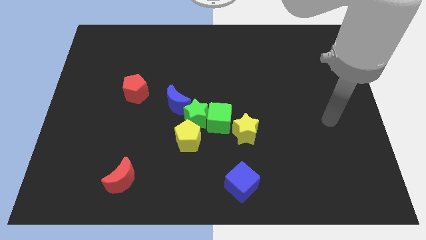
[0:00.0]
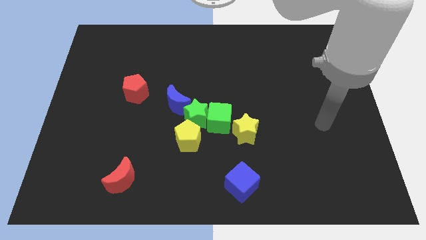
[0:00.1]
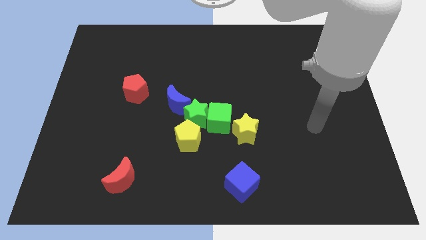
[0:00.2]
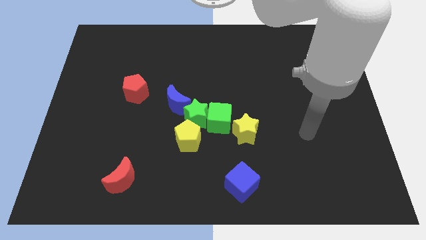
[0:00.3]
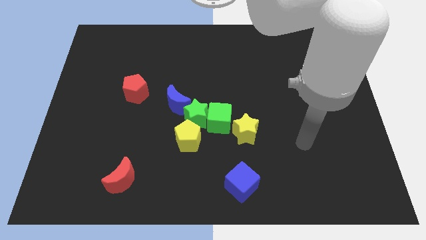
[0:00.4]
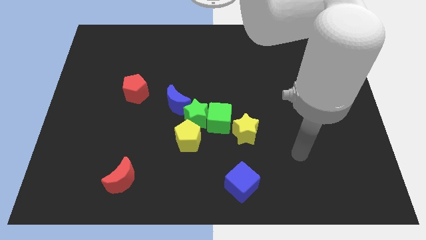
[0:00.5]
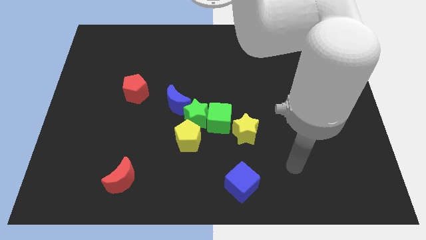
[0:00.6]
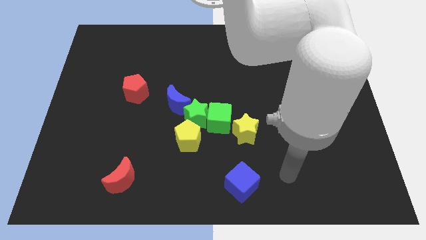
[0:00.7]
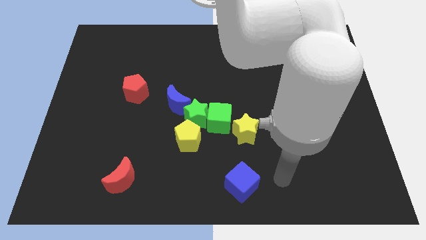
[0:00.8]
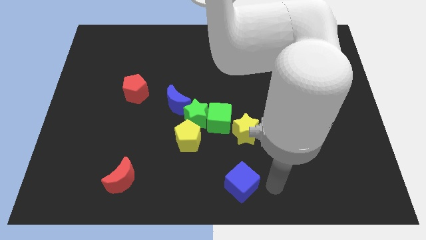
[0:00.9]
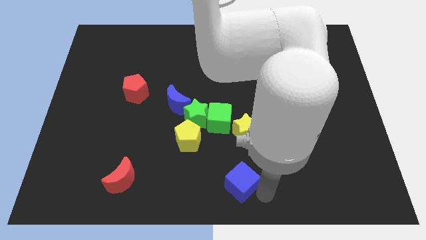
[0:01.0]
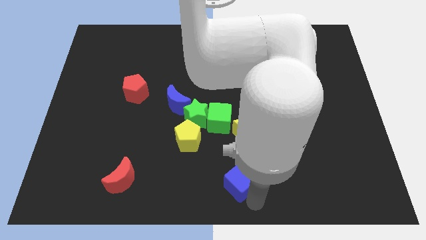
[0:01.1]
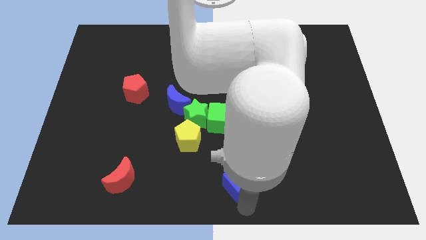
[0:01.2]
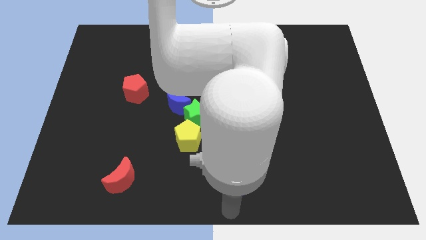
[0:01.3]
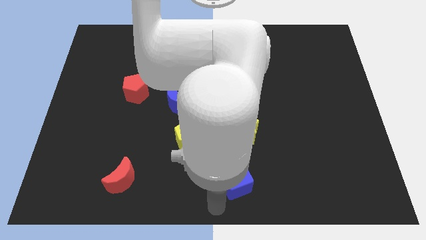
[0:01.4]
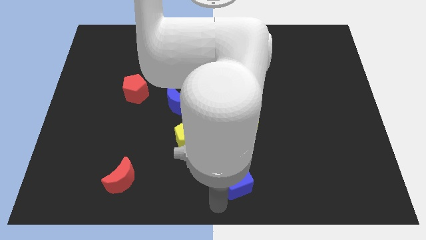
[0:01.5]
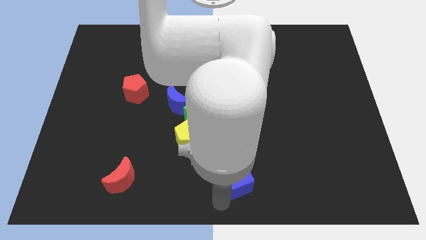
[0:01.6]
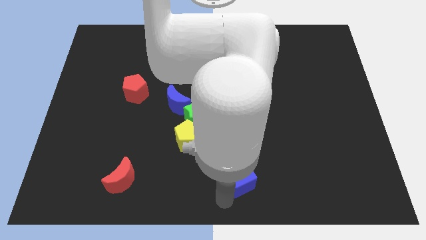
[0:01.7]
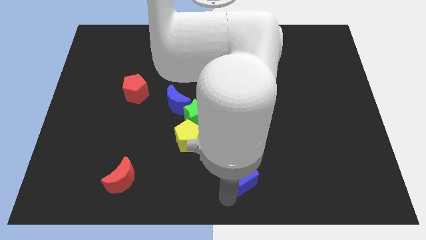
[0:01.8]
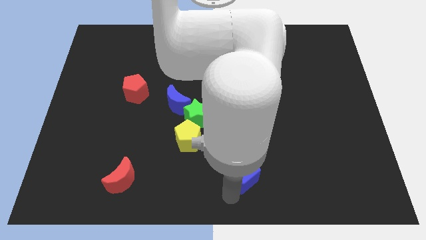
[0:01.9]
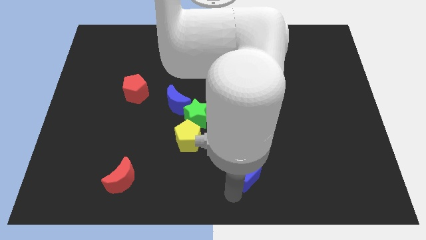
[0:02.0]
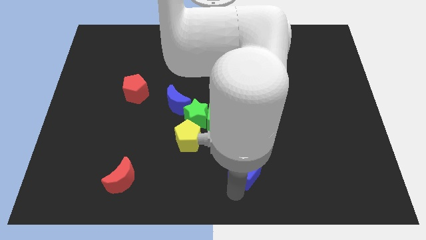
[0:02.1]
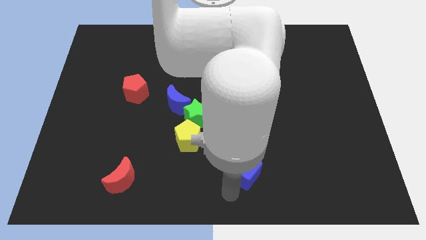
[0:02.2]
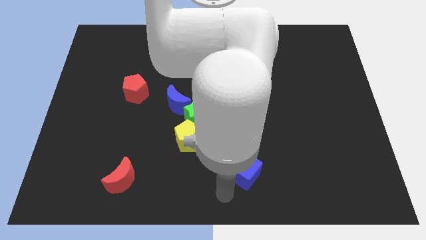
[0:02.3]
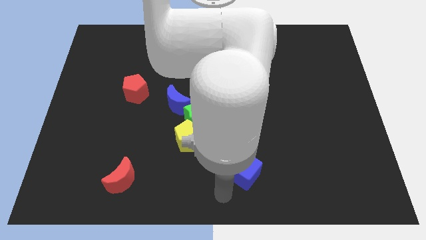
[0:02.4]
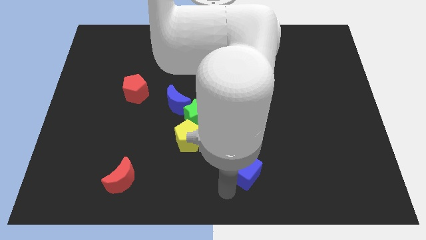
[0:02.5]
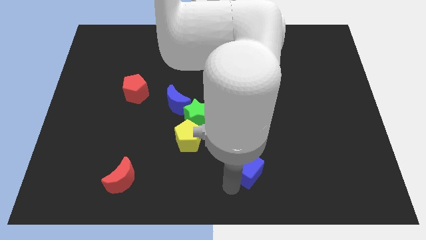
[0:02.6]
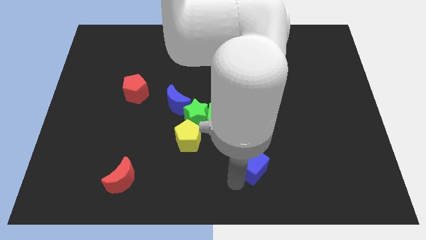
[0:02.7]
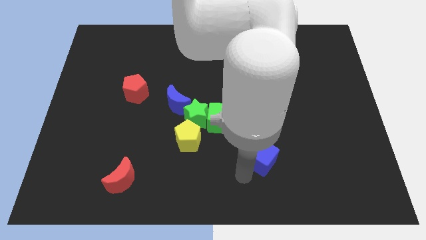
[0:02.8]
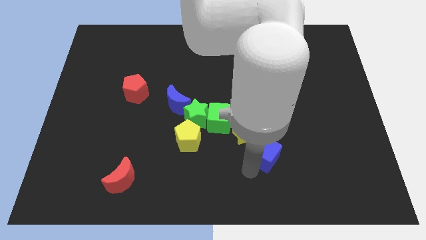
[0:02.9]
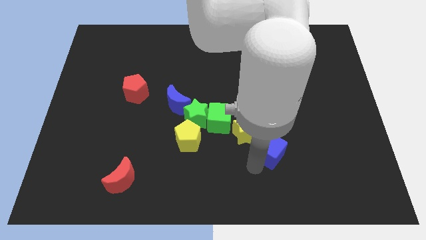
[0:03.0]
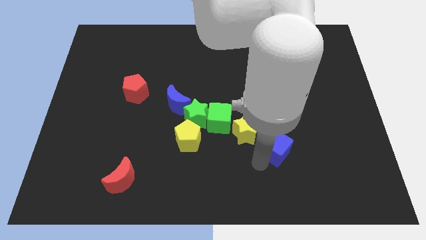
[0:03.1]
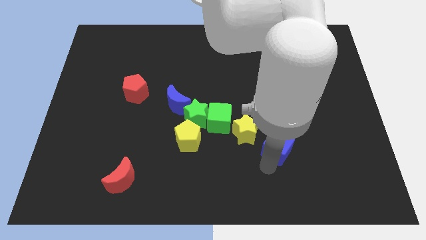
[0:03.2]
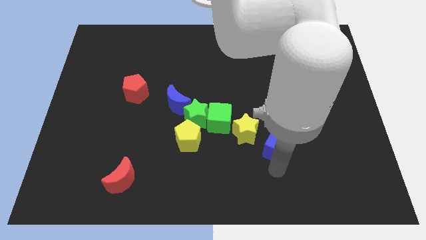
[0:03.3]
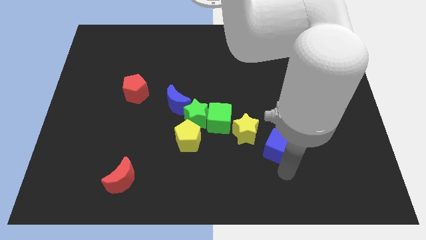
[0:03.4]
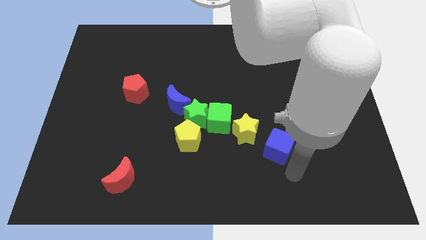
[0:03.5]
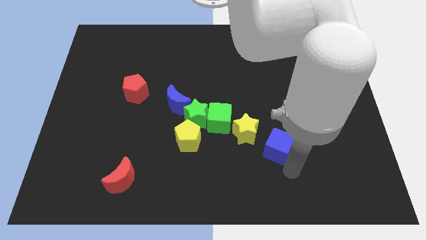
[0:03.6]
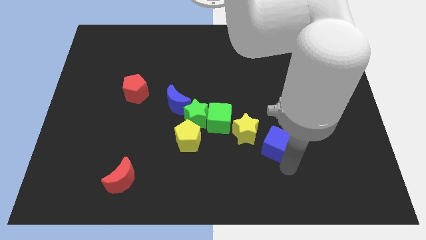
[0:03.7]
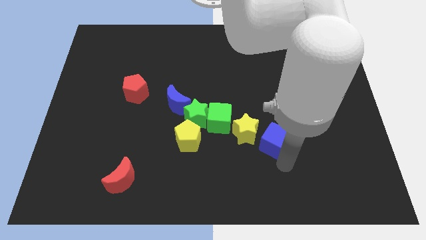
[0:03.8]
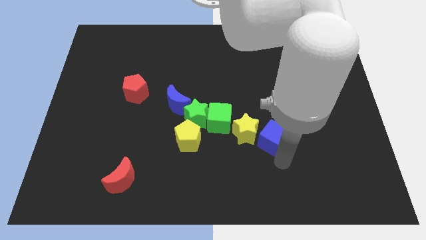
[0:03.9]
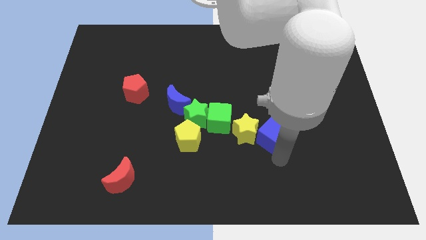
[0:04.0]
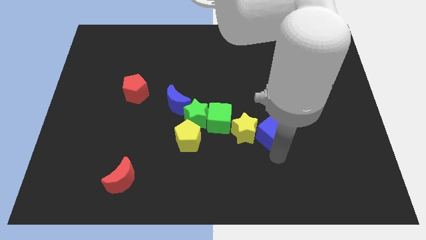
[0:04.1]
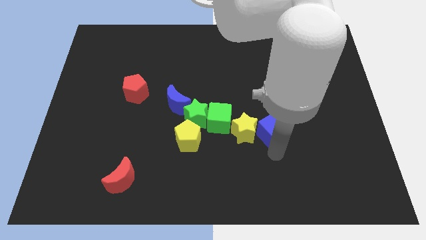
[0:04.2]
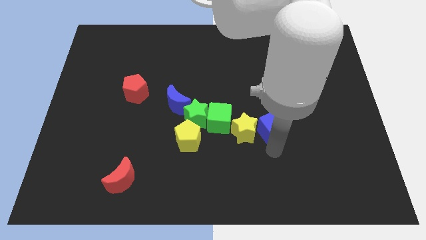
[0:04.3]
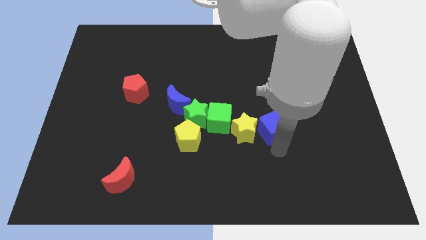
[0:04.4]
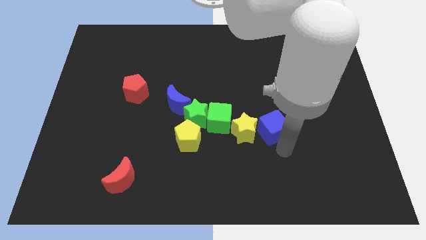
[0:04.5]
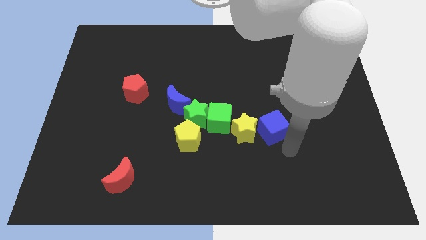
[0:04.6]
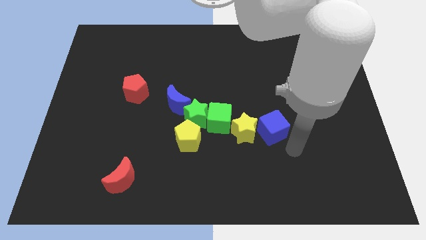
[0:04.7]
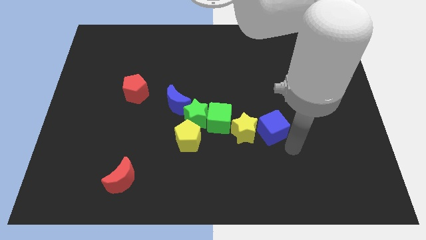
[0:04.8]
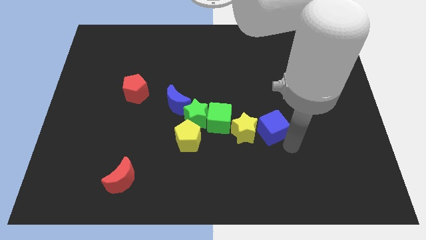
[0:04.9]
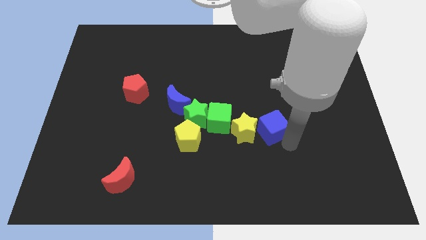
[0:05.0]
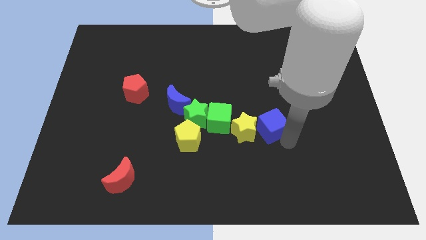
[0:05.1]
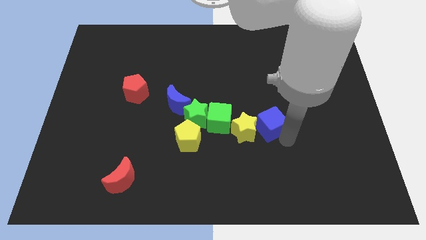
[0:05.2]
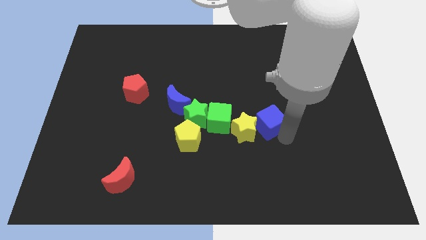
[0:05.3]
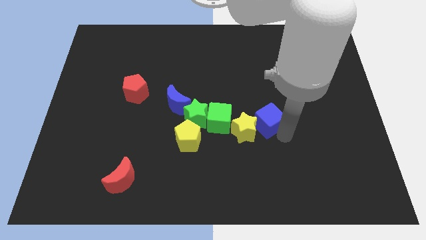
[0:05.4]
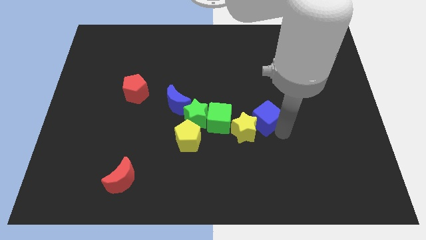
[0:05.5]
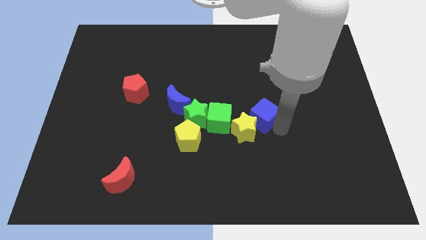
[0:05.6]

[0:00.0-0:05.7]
slide the blue cube to the center of the board
